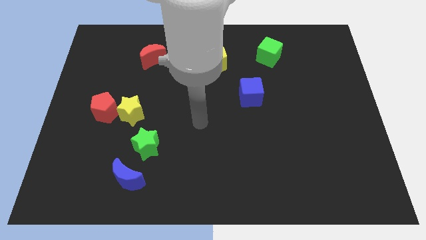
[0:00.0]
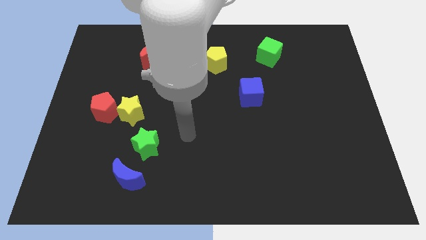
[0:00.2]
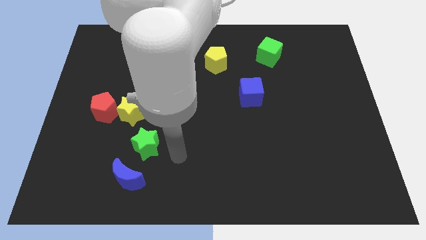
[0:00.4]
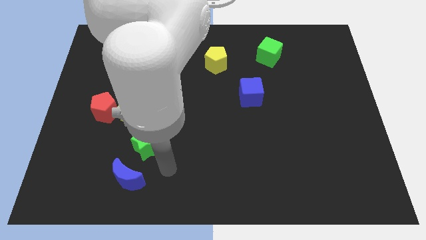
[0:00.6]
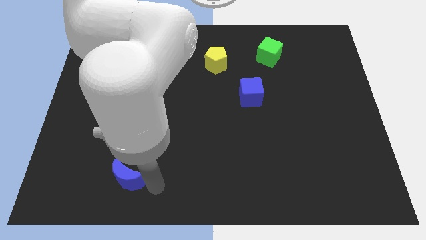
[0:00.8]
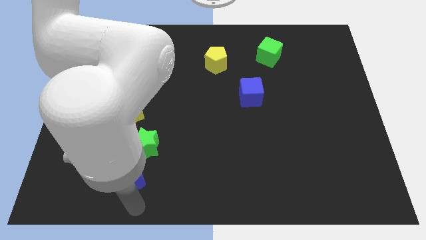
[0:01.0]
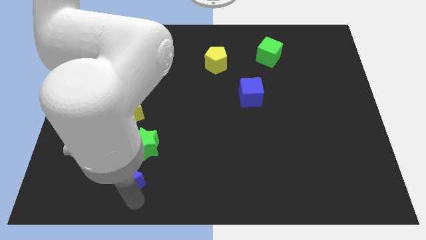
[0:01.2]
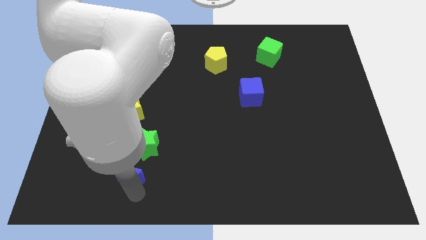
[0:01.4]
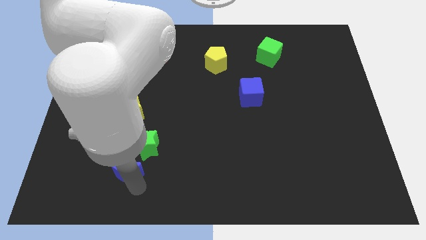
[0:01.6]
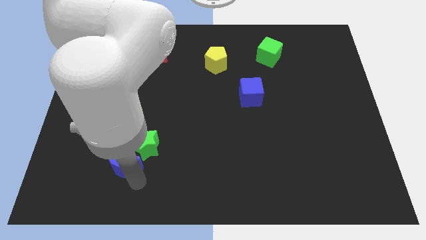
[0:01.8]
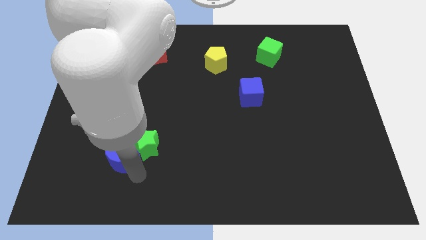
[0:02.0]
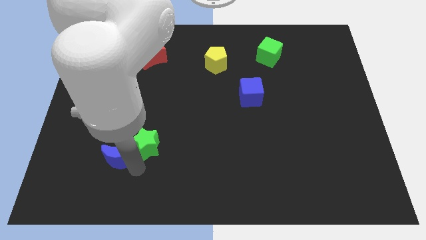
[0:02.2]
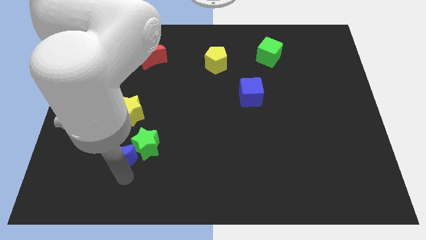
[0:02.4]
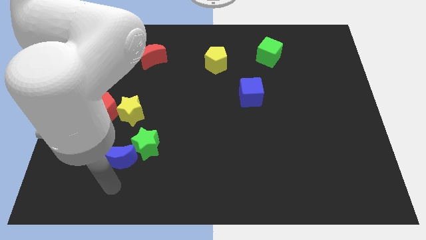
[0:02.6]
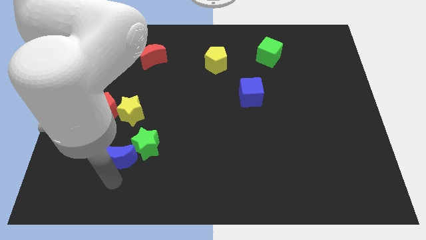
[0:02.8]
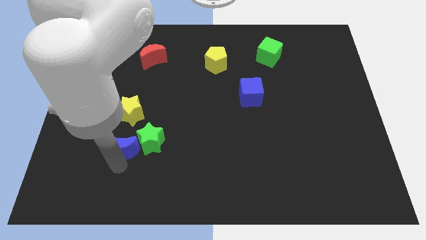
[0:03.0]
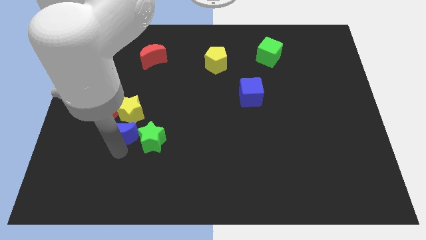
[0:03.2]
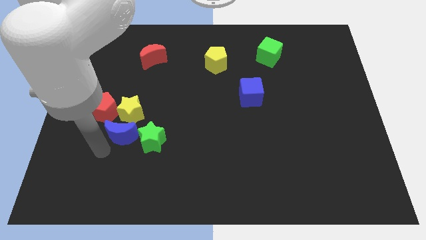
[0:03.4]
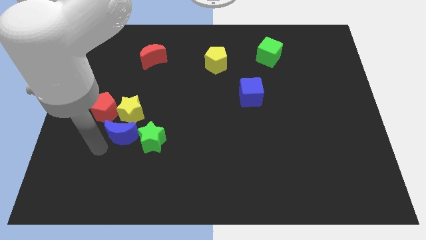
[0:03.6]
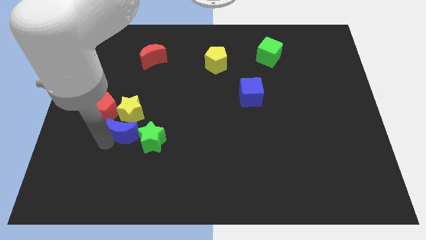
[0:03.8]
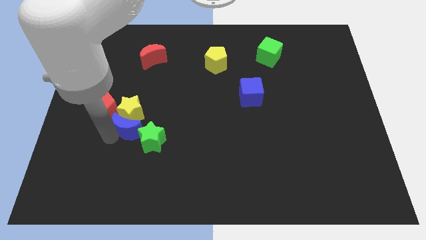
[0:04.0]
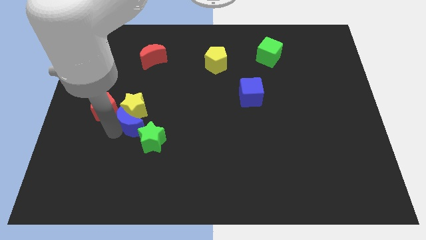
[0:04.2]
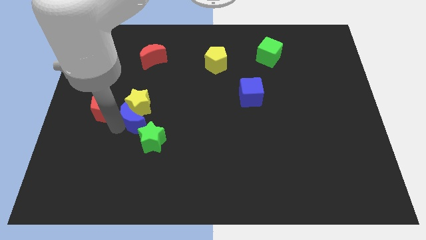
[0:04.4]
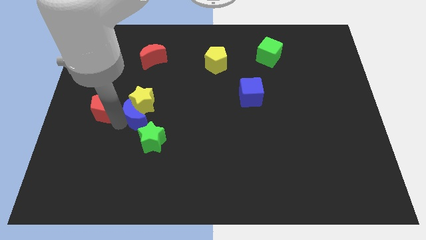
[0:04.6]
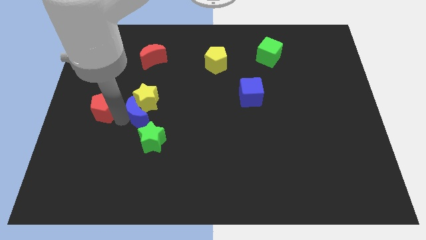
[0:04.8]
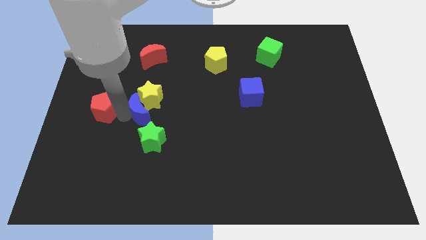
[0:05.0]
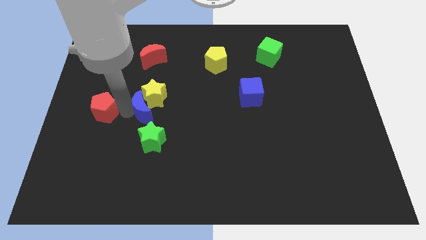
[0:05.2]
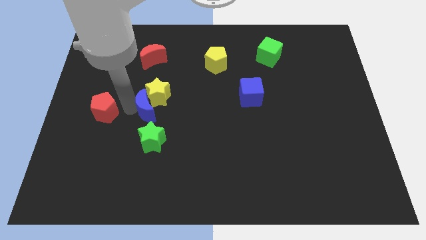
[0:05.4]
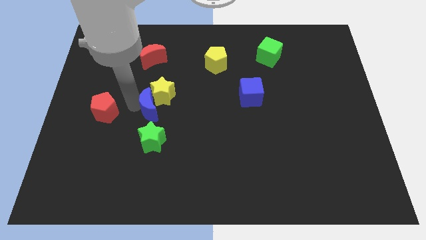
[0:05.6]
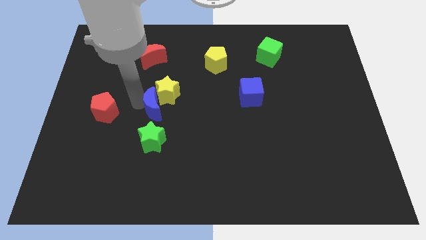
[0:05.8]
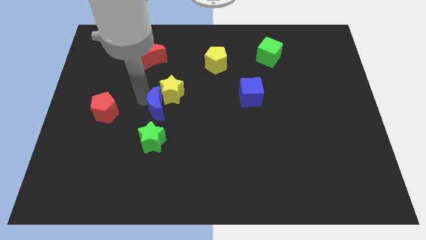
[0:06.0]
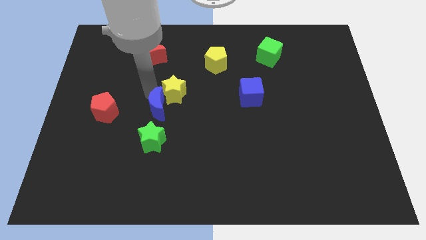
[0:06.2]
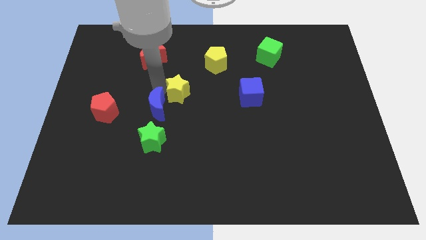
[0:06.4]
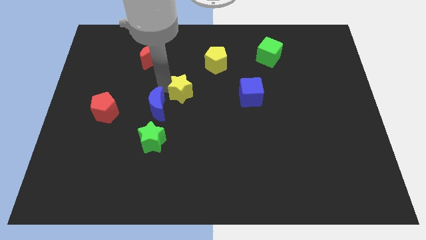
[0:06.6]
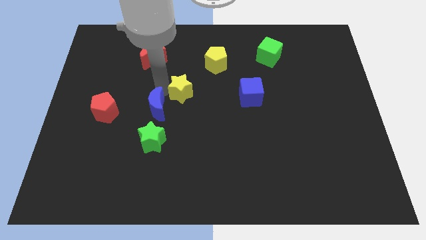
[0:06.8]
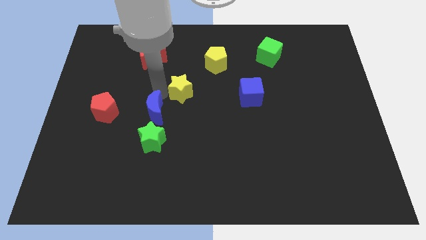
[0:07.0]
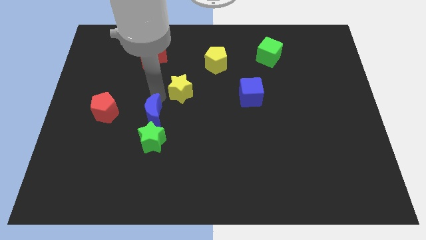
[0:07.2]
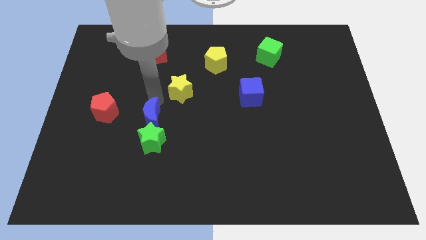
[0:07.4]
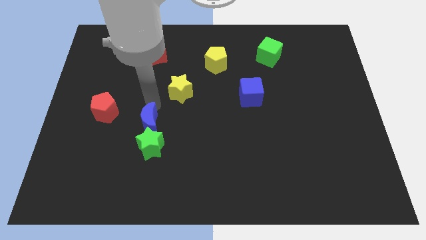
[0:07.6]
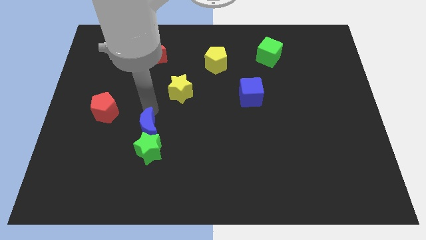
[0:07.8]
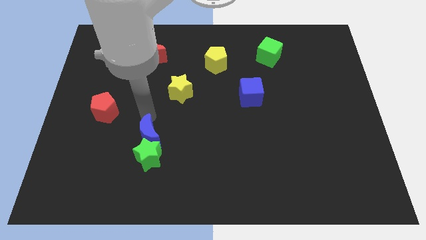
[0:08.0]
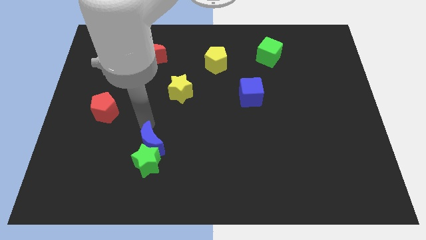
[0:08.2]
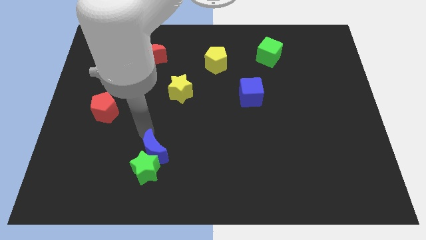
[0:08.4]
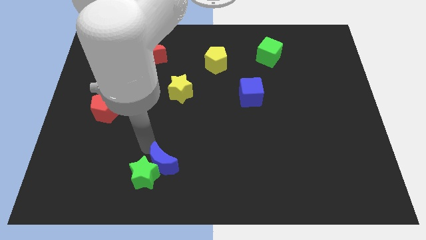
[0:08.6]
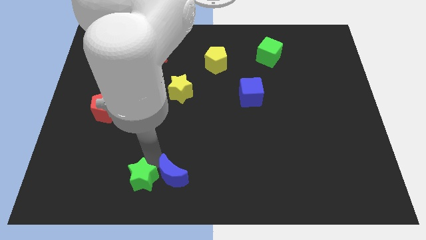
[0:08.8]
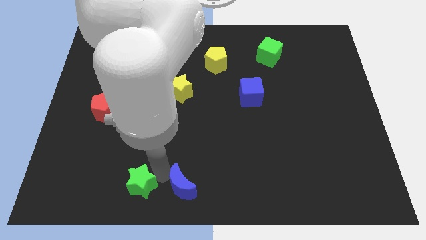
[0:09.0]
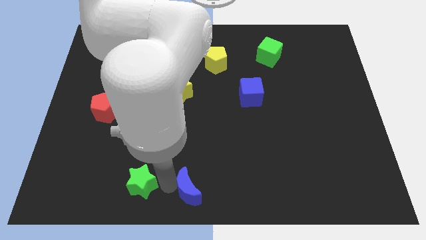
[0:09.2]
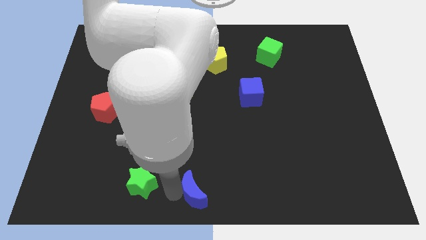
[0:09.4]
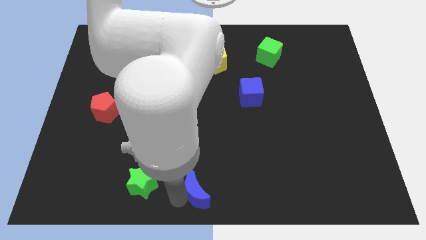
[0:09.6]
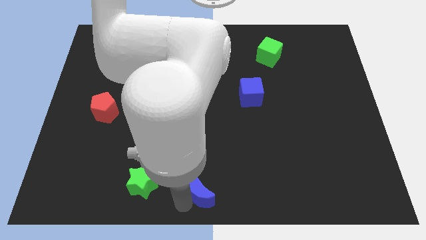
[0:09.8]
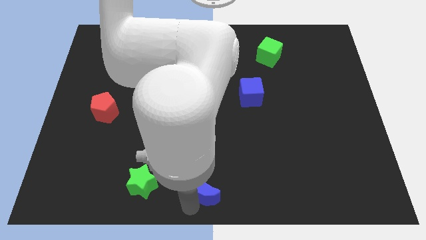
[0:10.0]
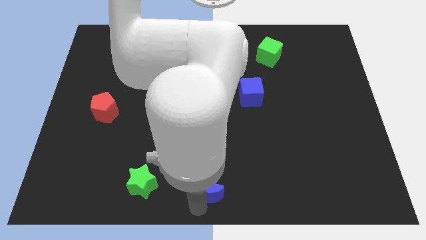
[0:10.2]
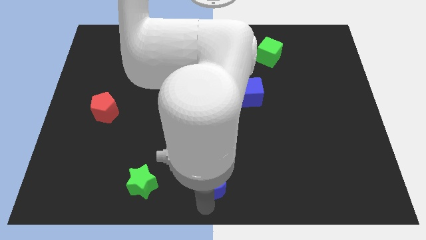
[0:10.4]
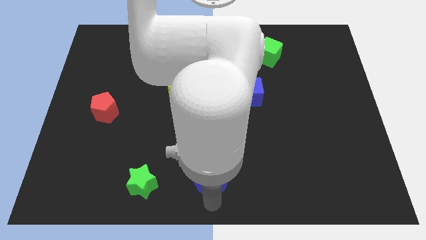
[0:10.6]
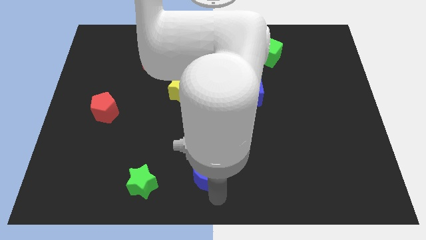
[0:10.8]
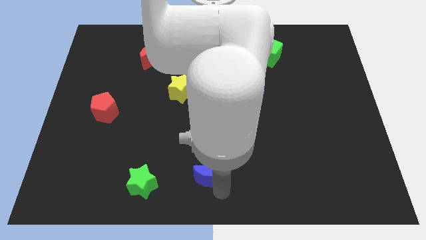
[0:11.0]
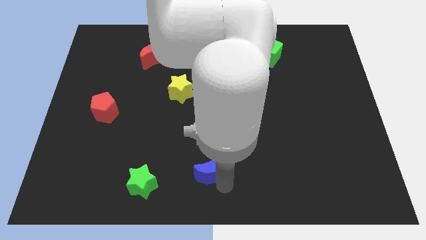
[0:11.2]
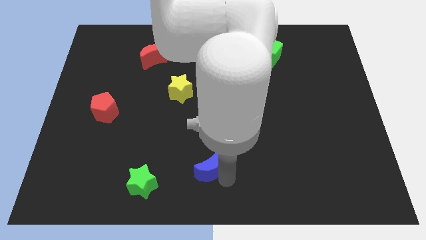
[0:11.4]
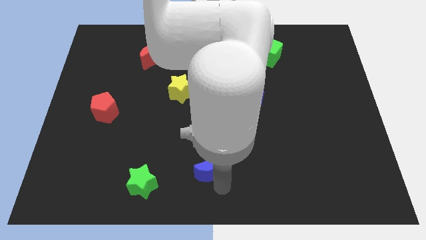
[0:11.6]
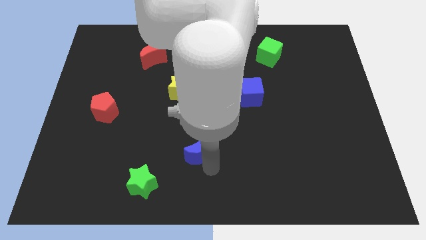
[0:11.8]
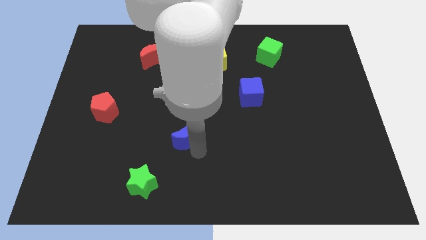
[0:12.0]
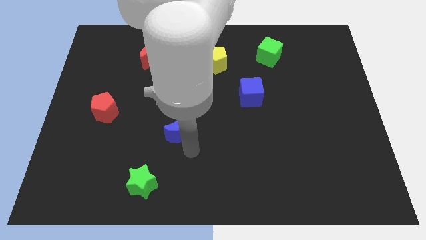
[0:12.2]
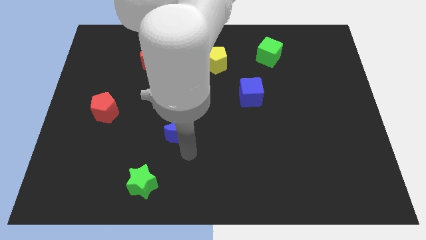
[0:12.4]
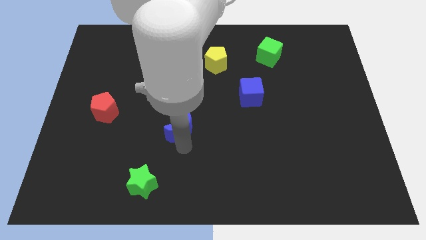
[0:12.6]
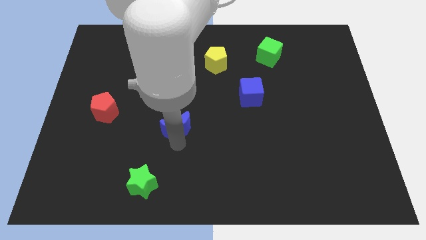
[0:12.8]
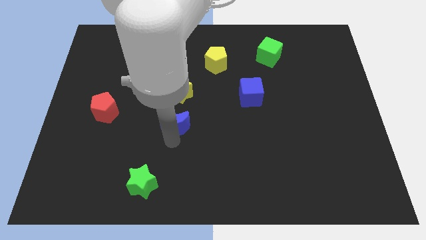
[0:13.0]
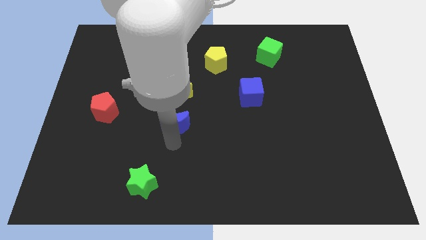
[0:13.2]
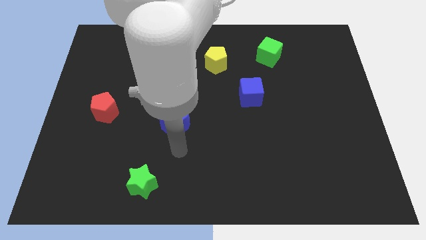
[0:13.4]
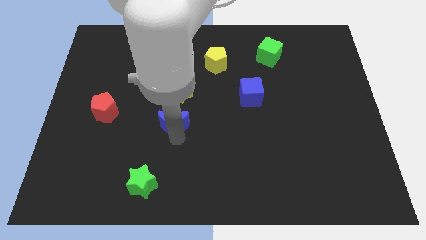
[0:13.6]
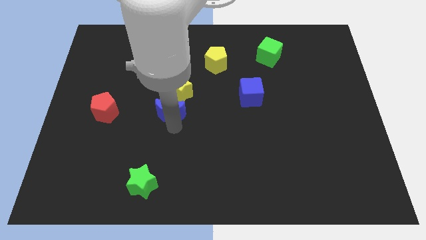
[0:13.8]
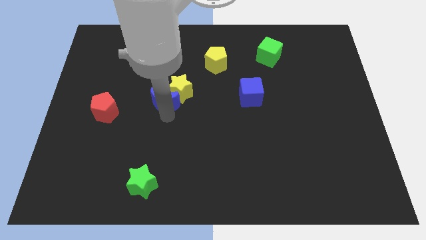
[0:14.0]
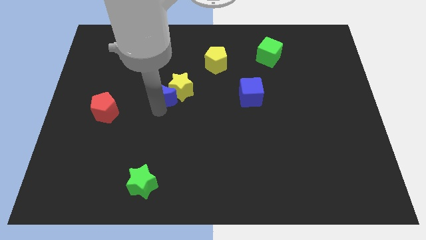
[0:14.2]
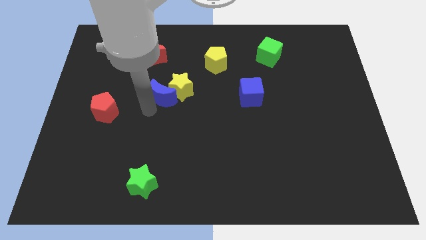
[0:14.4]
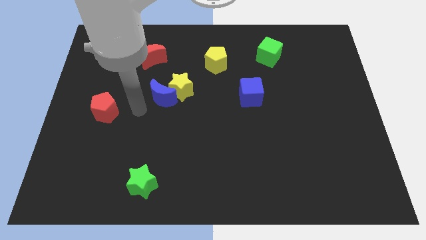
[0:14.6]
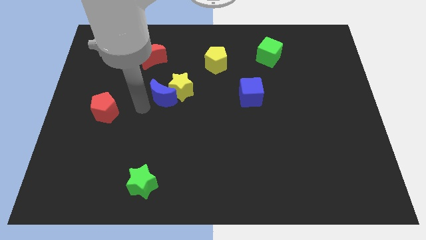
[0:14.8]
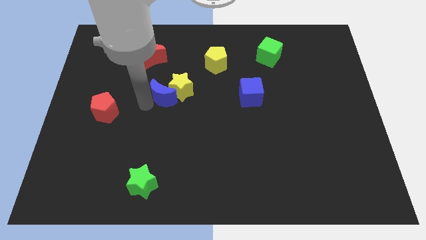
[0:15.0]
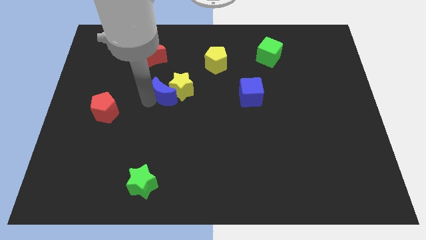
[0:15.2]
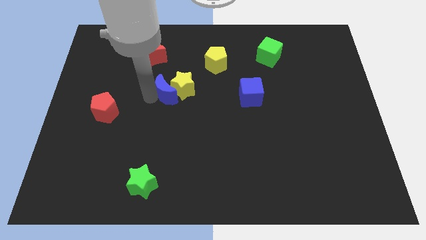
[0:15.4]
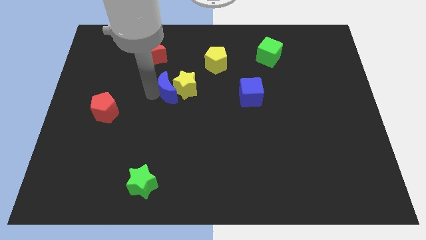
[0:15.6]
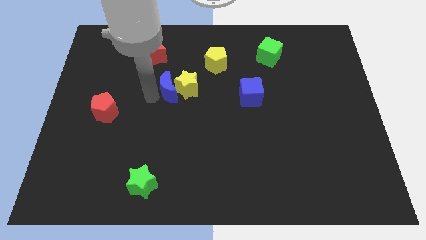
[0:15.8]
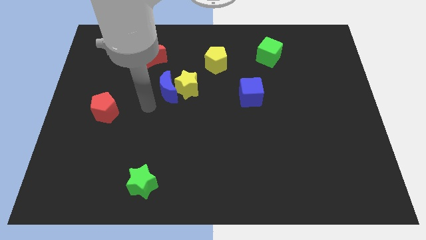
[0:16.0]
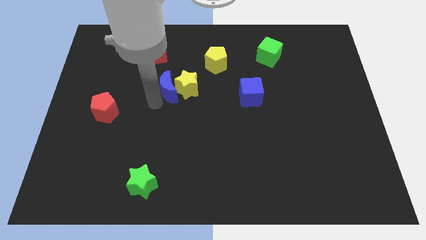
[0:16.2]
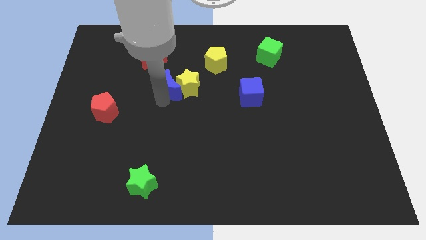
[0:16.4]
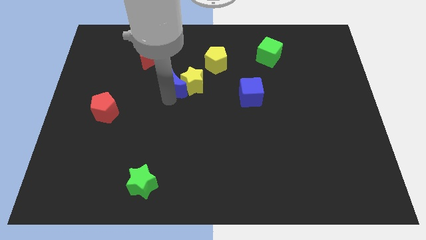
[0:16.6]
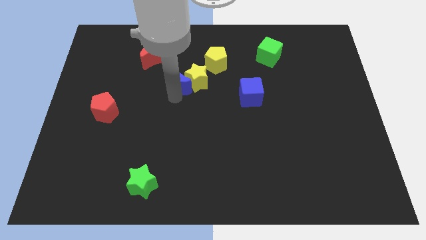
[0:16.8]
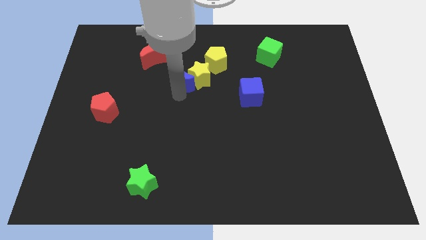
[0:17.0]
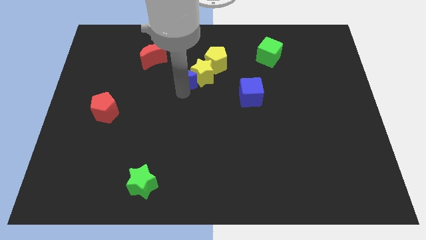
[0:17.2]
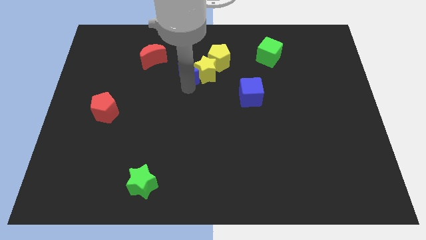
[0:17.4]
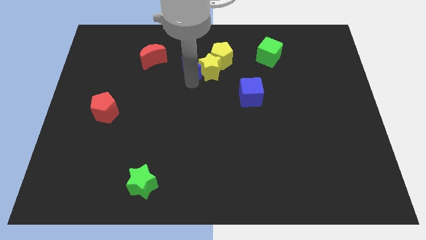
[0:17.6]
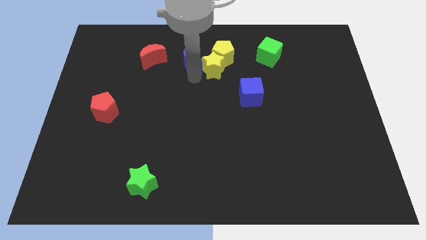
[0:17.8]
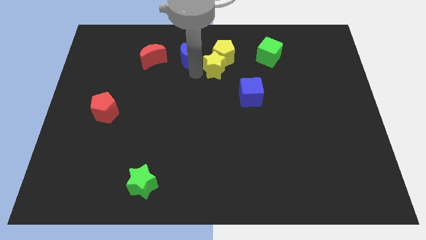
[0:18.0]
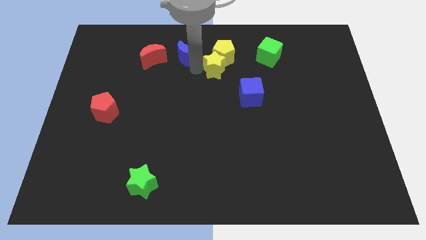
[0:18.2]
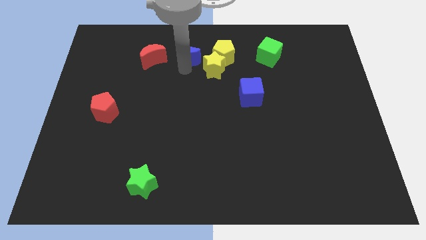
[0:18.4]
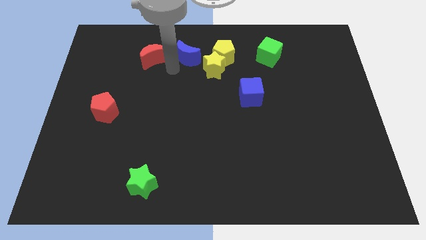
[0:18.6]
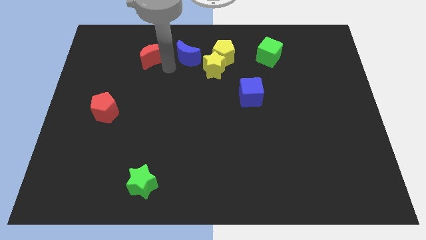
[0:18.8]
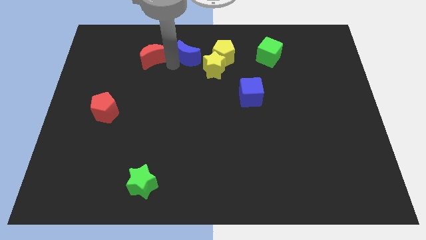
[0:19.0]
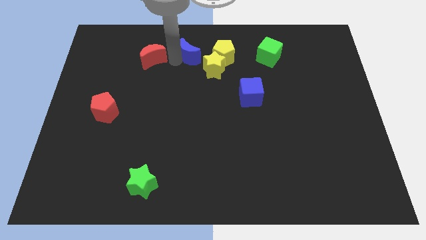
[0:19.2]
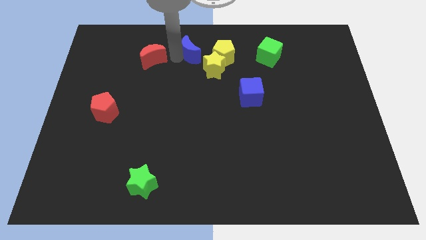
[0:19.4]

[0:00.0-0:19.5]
put the blue moon to the top
